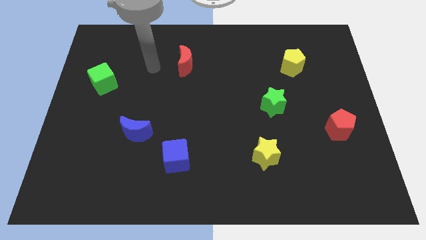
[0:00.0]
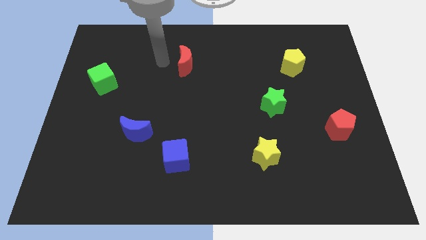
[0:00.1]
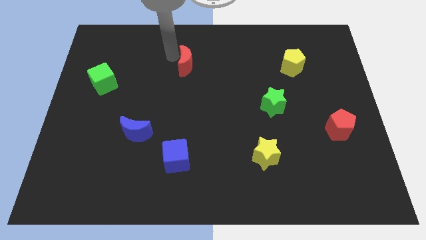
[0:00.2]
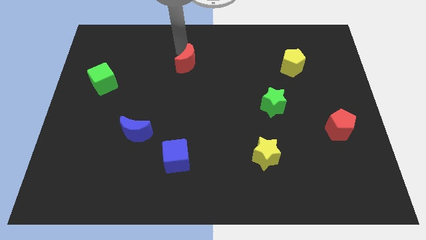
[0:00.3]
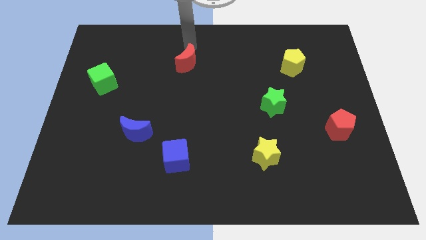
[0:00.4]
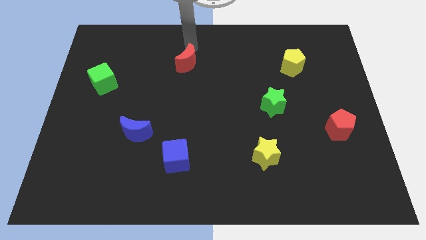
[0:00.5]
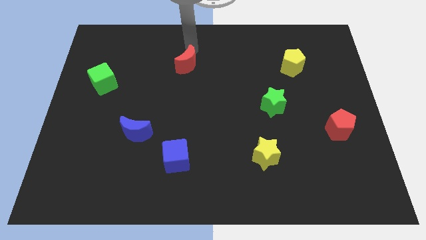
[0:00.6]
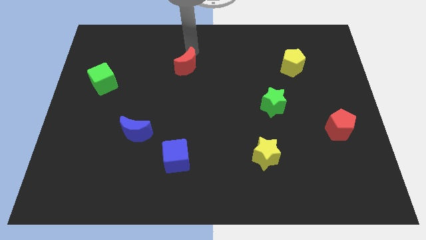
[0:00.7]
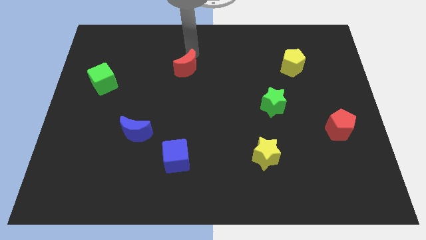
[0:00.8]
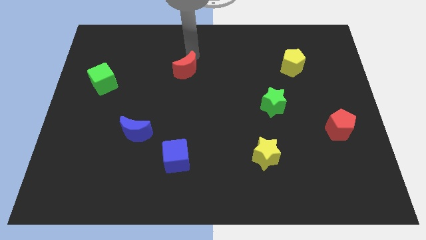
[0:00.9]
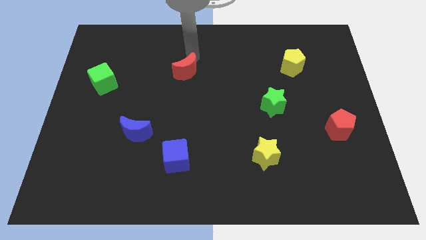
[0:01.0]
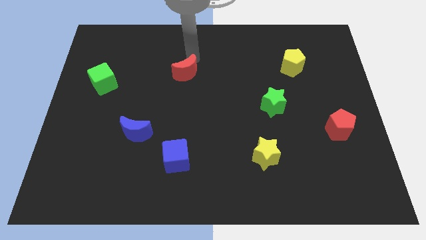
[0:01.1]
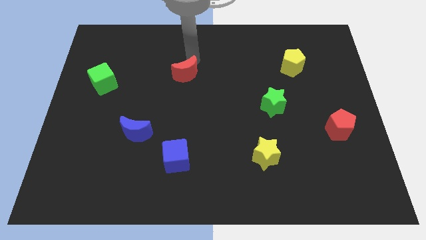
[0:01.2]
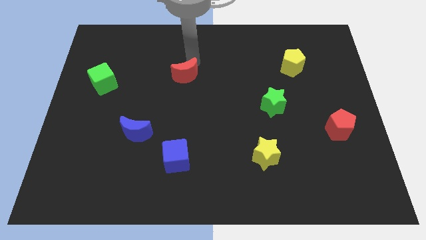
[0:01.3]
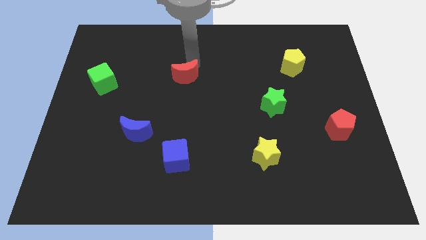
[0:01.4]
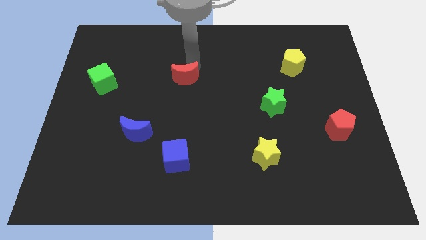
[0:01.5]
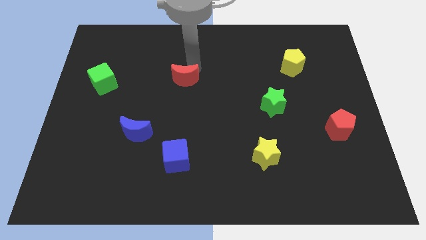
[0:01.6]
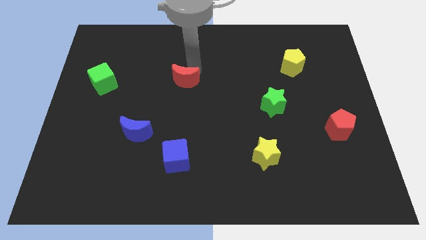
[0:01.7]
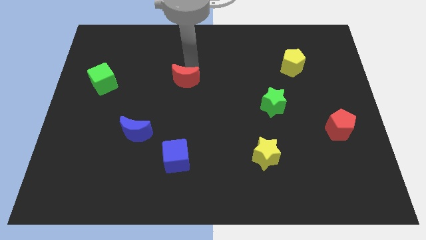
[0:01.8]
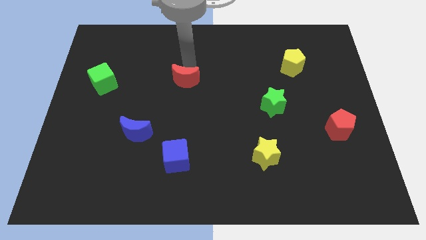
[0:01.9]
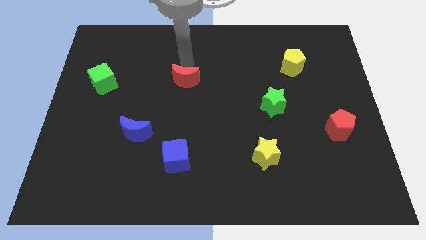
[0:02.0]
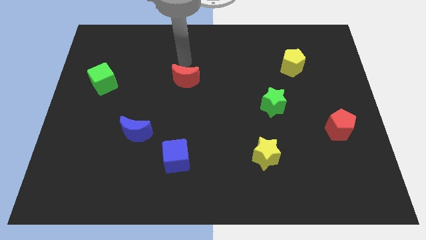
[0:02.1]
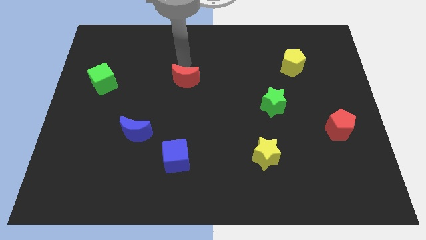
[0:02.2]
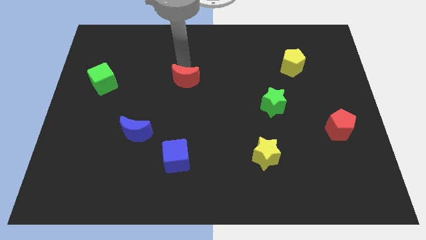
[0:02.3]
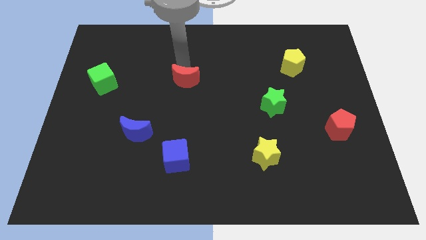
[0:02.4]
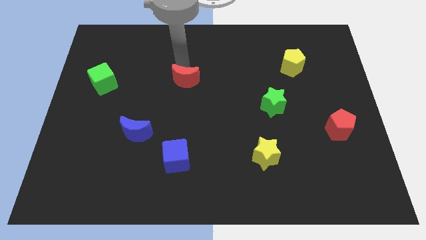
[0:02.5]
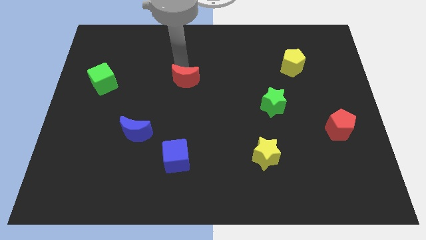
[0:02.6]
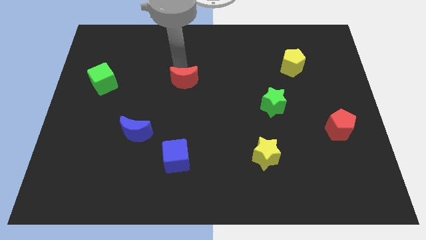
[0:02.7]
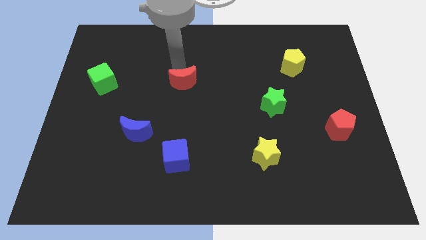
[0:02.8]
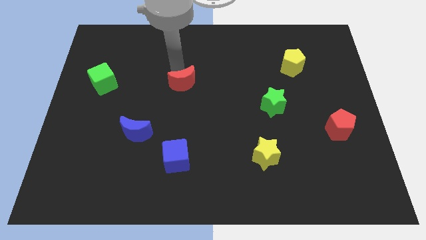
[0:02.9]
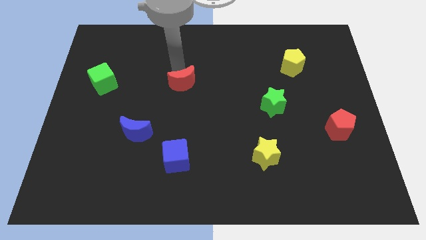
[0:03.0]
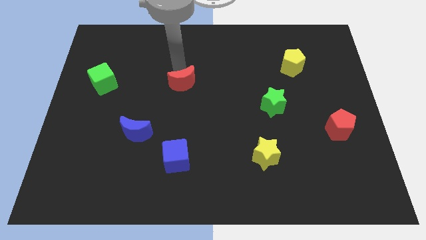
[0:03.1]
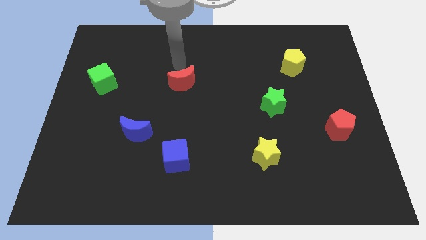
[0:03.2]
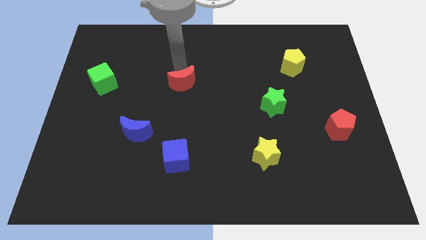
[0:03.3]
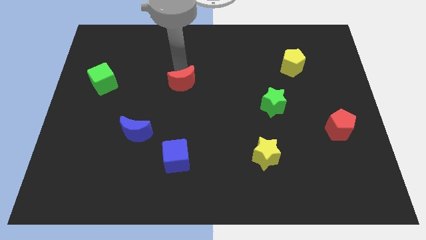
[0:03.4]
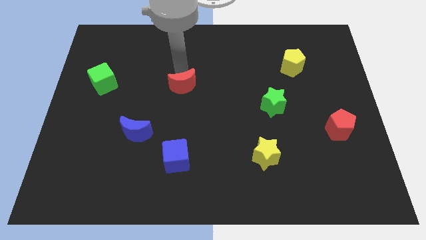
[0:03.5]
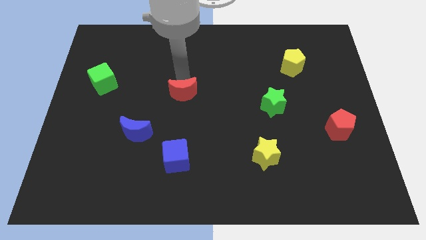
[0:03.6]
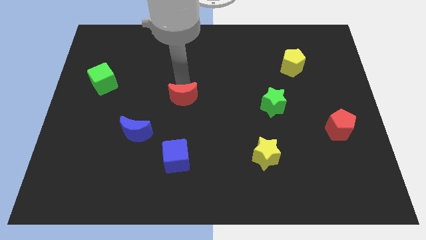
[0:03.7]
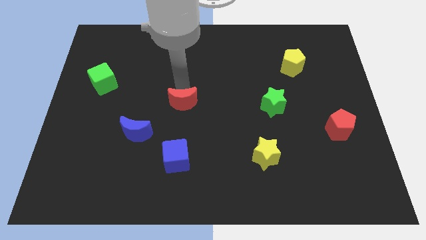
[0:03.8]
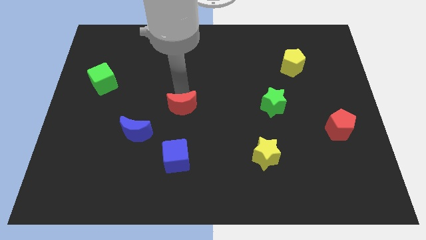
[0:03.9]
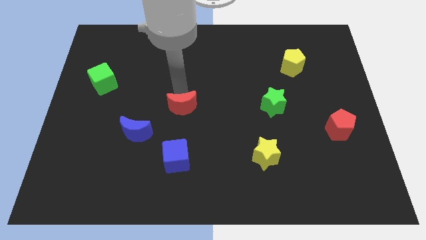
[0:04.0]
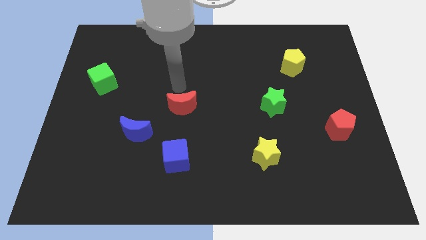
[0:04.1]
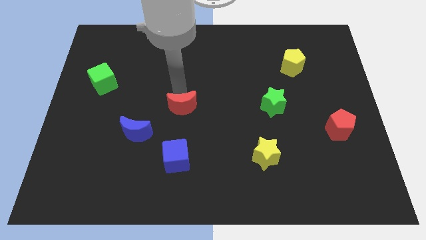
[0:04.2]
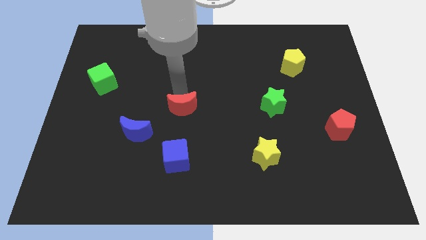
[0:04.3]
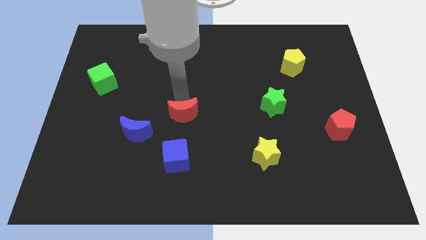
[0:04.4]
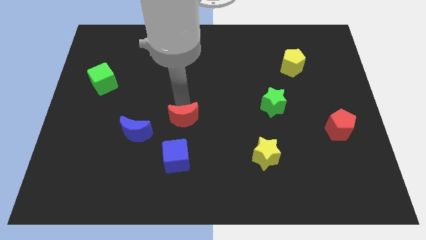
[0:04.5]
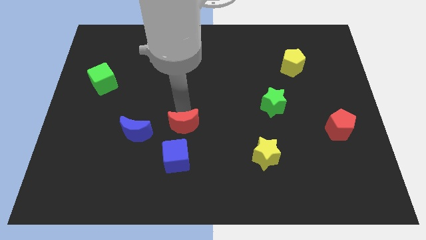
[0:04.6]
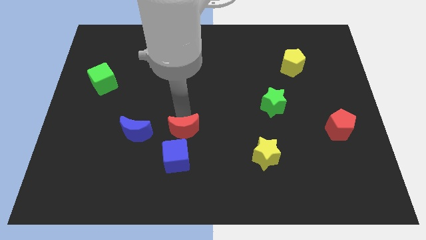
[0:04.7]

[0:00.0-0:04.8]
move the red moon down

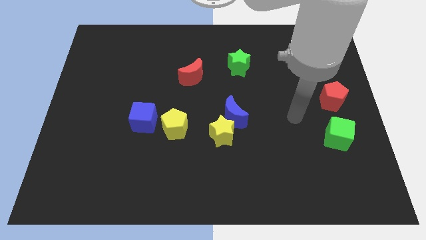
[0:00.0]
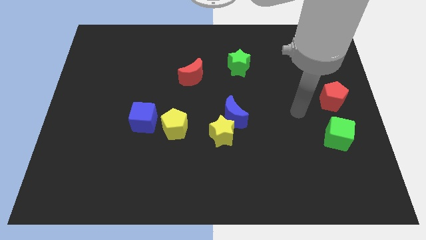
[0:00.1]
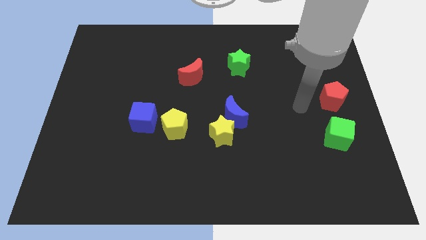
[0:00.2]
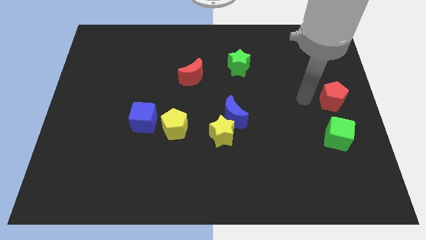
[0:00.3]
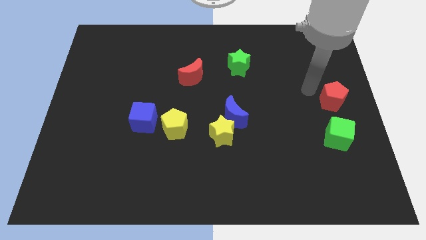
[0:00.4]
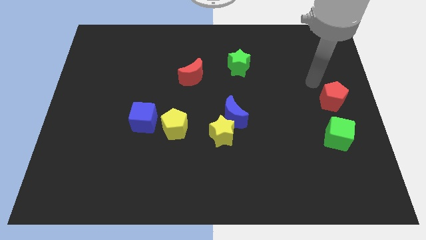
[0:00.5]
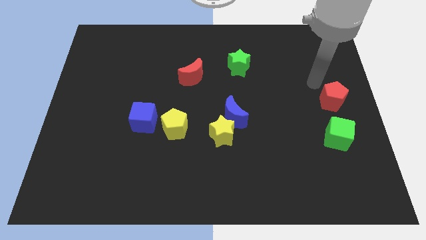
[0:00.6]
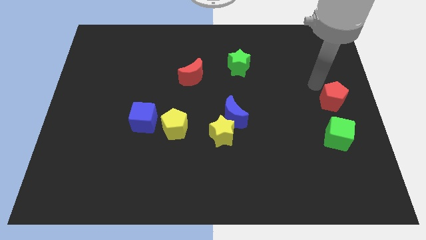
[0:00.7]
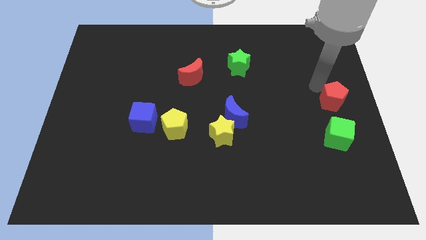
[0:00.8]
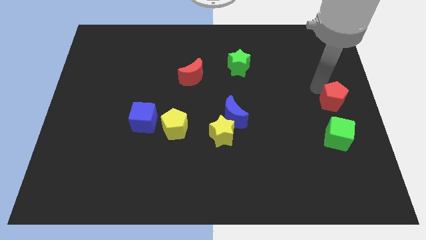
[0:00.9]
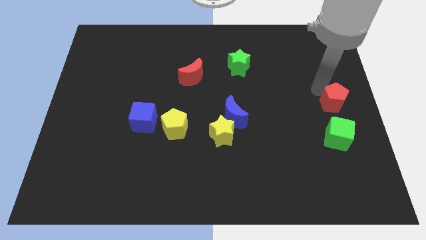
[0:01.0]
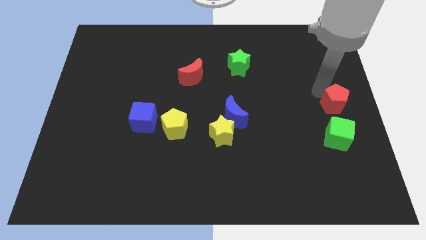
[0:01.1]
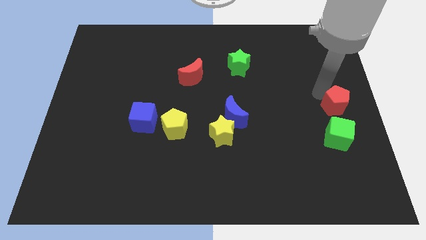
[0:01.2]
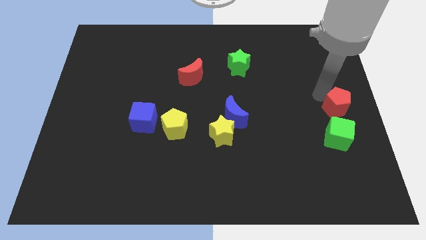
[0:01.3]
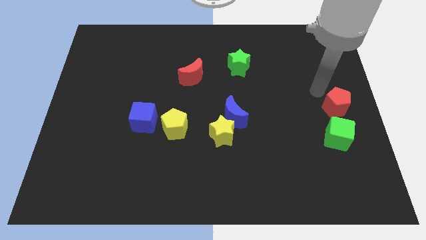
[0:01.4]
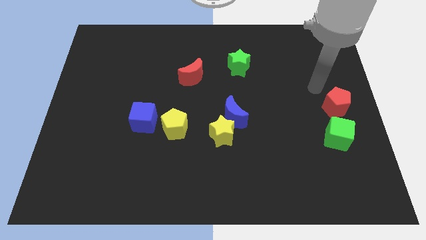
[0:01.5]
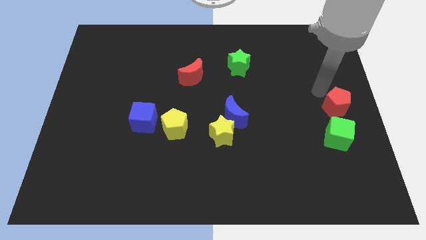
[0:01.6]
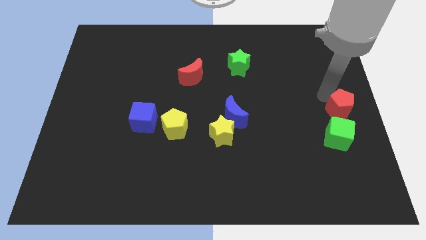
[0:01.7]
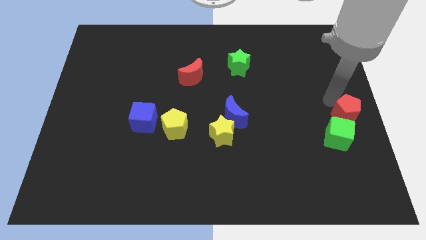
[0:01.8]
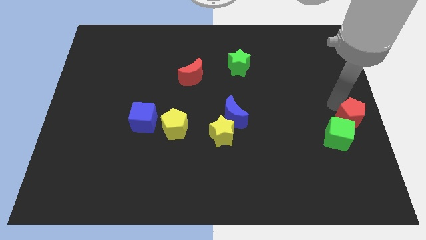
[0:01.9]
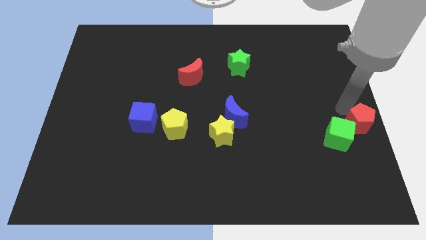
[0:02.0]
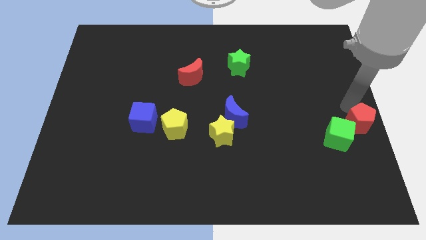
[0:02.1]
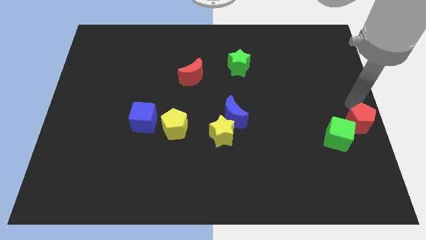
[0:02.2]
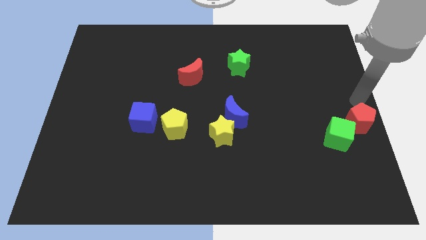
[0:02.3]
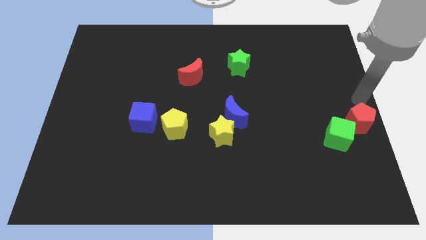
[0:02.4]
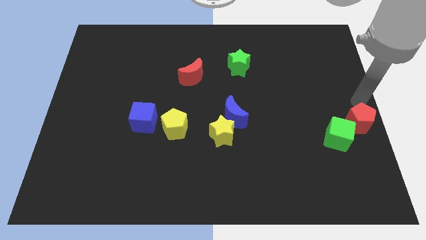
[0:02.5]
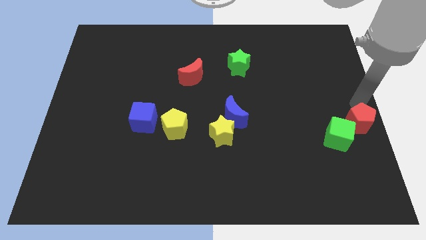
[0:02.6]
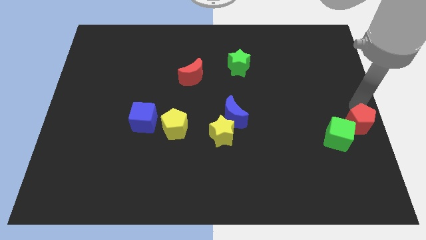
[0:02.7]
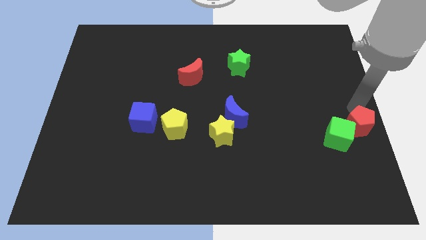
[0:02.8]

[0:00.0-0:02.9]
slightly move the red pentagon downwards

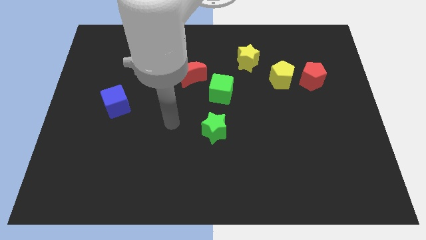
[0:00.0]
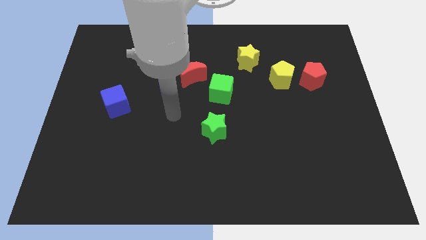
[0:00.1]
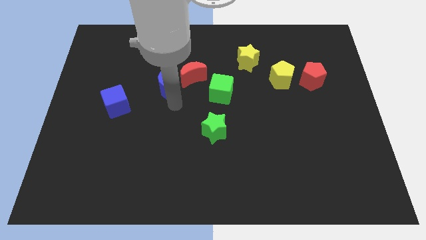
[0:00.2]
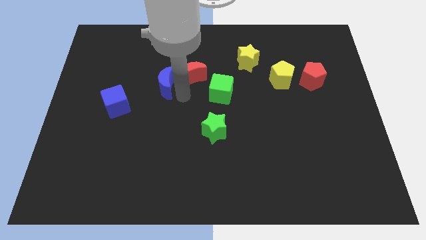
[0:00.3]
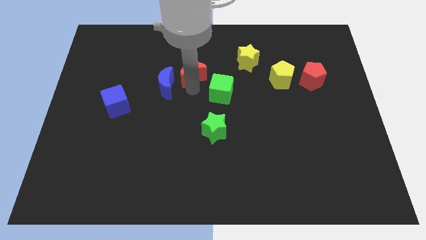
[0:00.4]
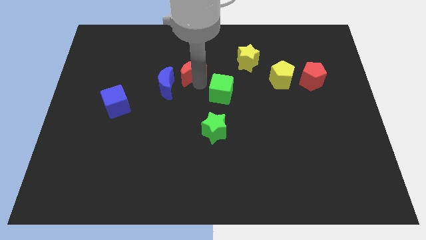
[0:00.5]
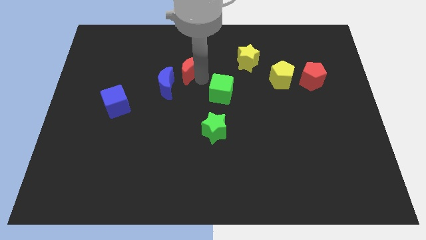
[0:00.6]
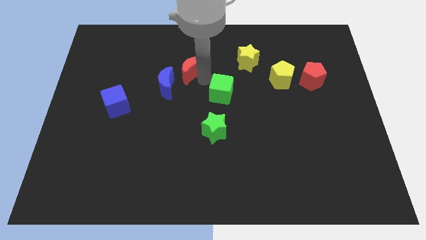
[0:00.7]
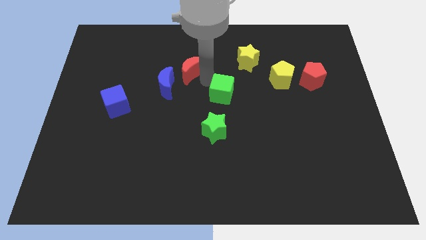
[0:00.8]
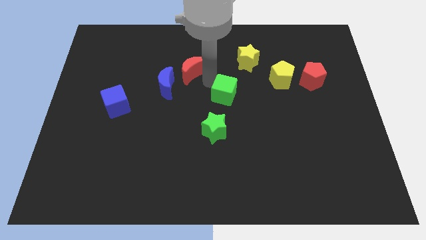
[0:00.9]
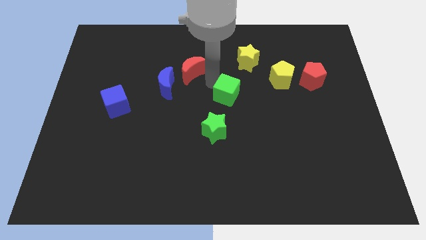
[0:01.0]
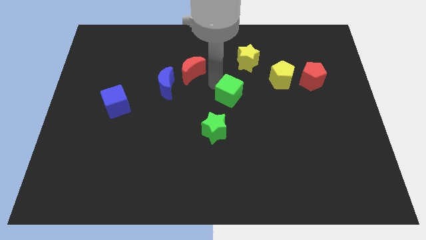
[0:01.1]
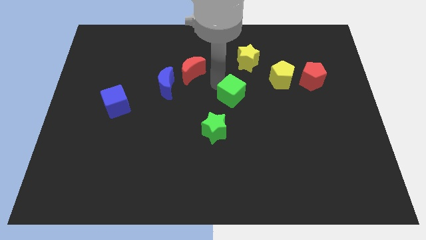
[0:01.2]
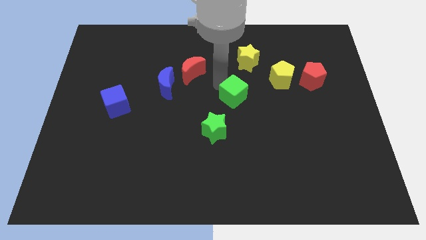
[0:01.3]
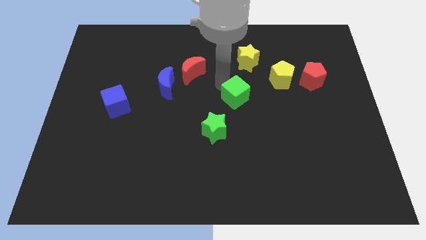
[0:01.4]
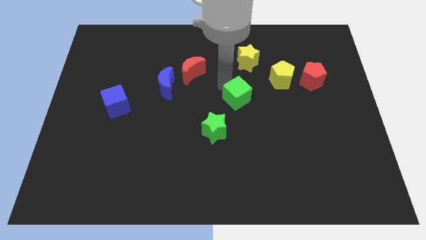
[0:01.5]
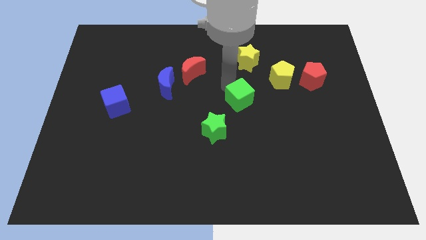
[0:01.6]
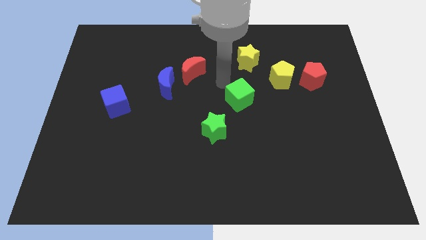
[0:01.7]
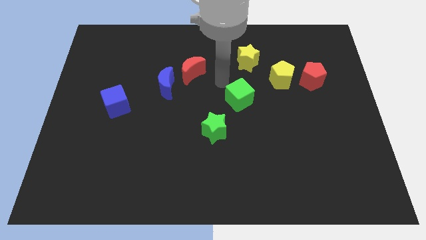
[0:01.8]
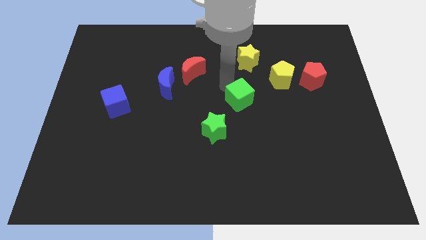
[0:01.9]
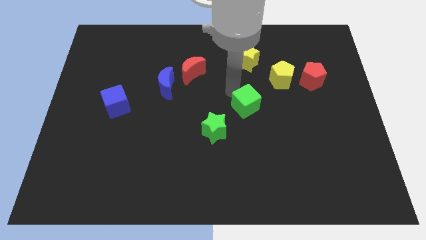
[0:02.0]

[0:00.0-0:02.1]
move the green cube diagonally down and to the right a little bit
